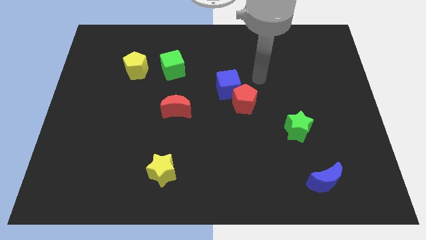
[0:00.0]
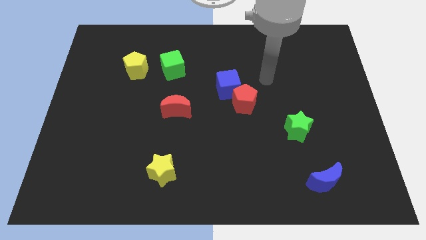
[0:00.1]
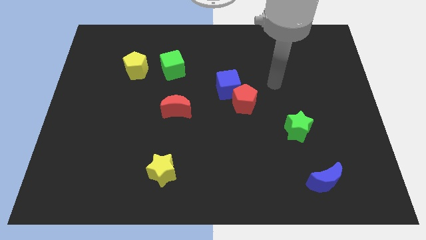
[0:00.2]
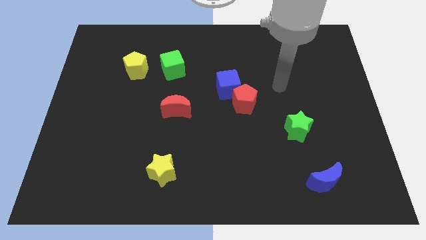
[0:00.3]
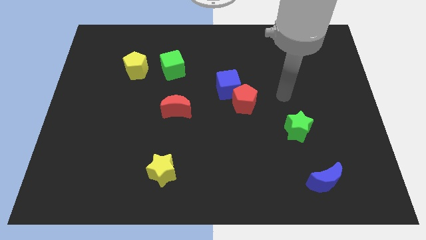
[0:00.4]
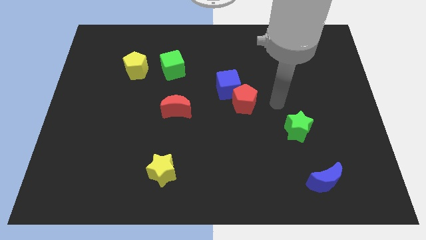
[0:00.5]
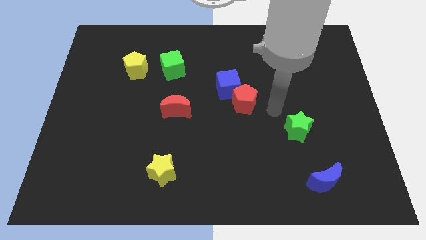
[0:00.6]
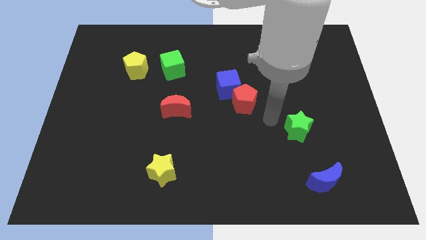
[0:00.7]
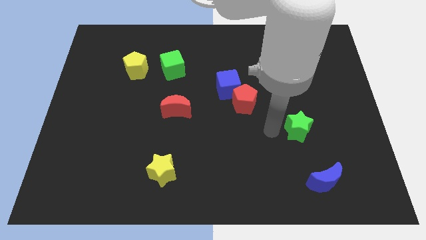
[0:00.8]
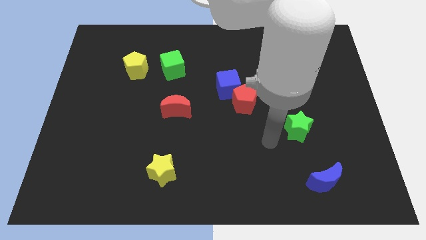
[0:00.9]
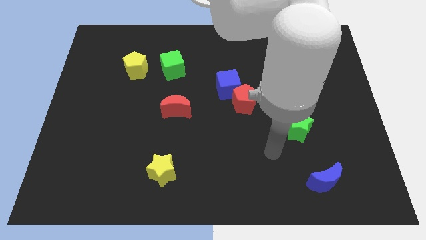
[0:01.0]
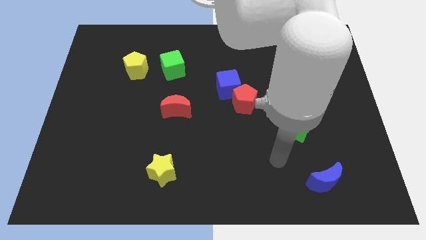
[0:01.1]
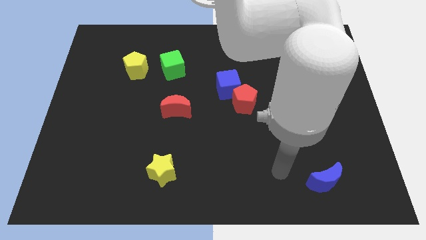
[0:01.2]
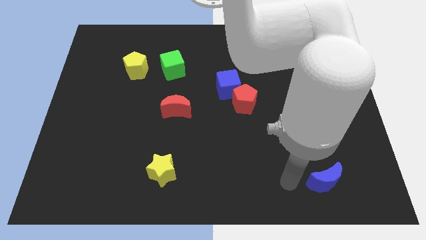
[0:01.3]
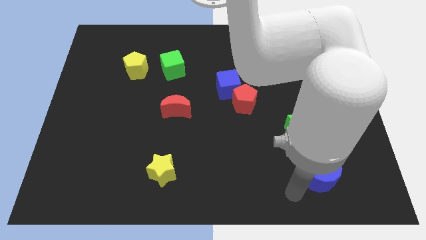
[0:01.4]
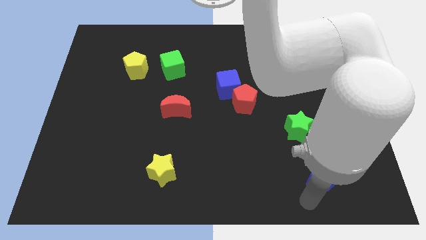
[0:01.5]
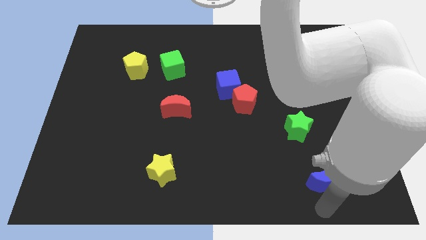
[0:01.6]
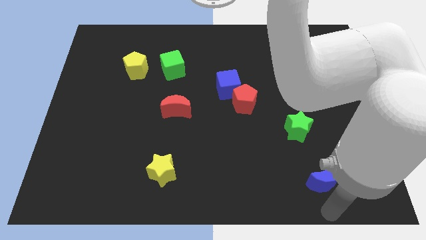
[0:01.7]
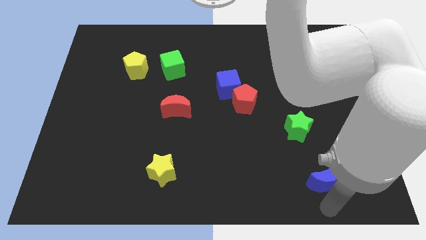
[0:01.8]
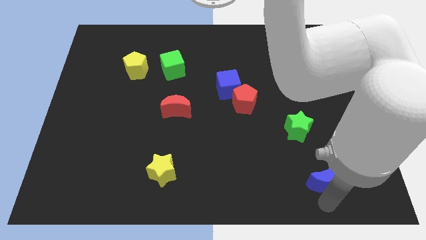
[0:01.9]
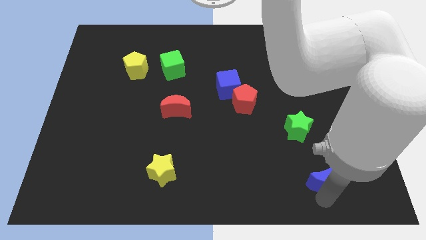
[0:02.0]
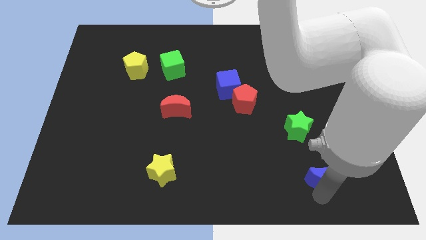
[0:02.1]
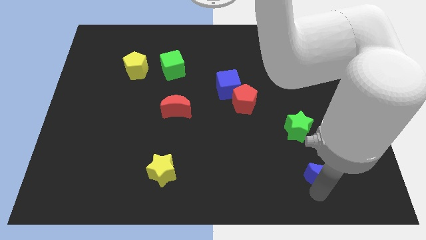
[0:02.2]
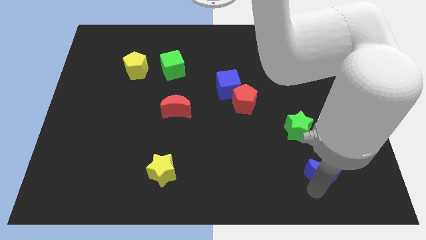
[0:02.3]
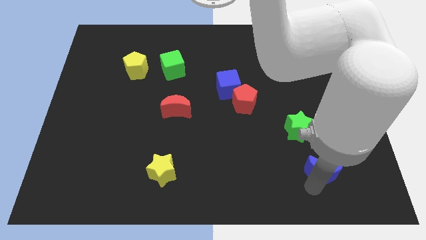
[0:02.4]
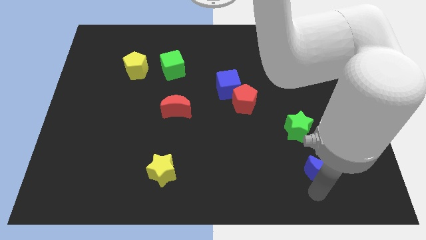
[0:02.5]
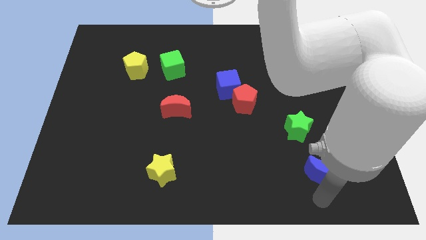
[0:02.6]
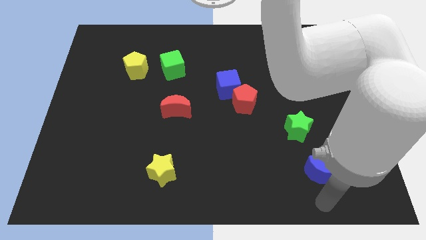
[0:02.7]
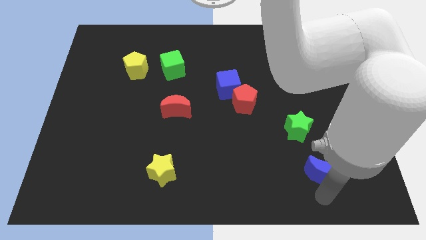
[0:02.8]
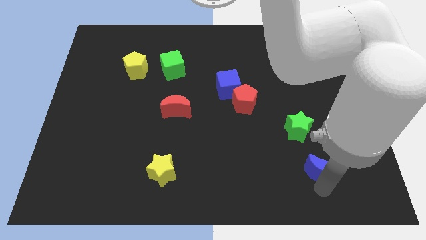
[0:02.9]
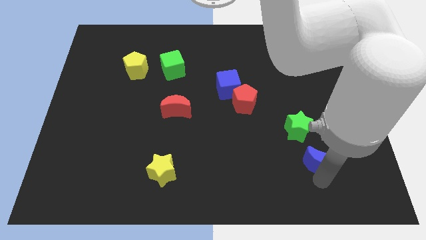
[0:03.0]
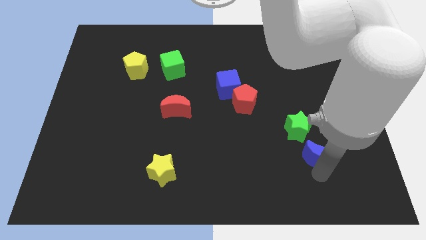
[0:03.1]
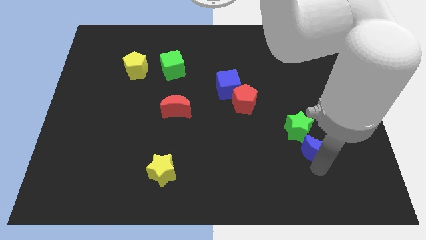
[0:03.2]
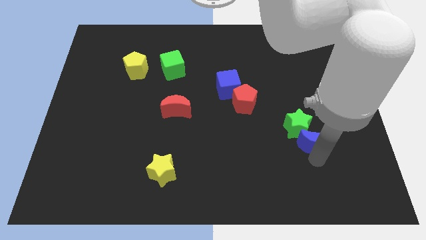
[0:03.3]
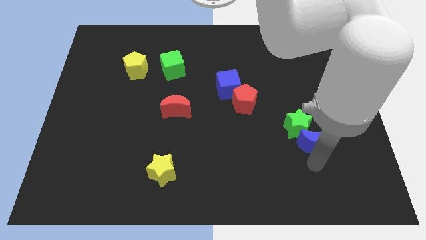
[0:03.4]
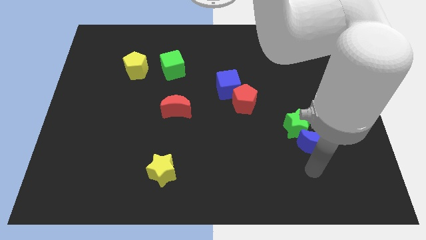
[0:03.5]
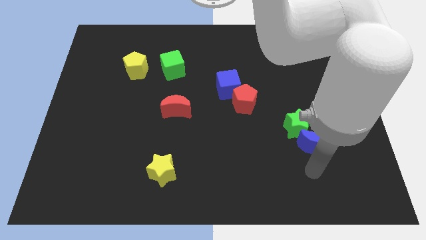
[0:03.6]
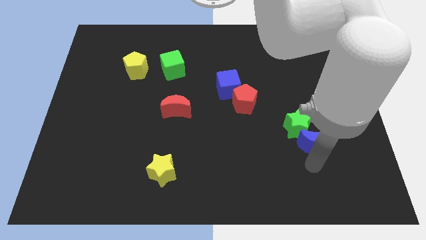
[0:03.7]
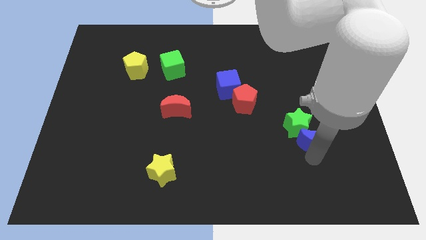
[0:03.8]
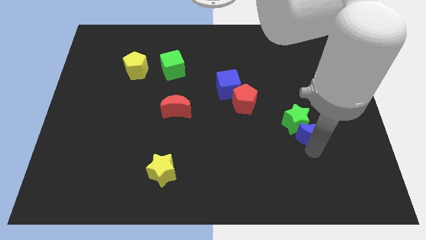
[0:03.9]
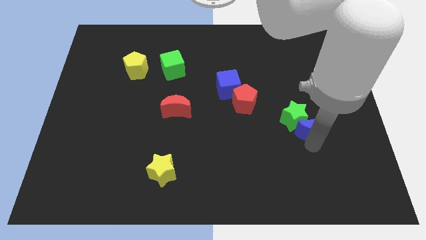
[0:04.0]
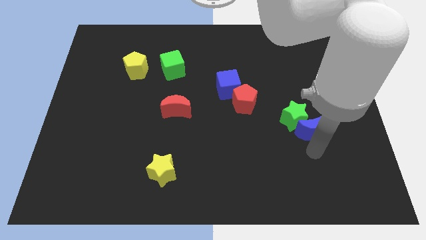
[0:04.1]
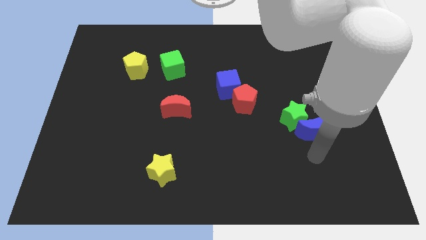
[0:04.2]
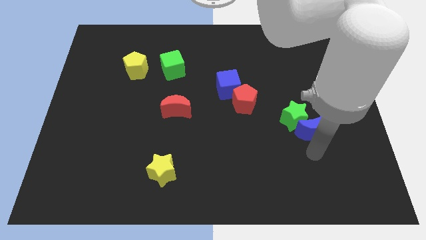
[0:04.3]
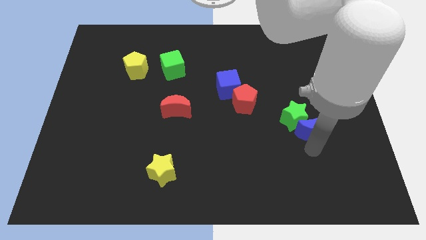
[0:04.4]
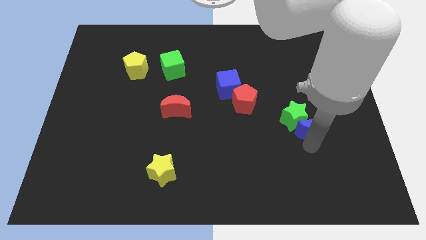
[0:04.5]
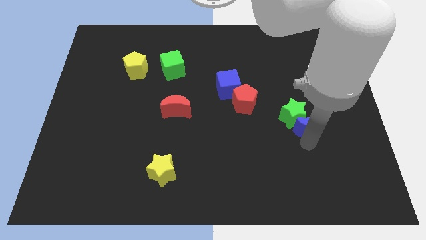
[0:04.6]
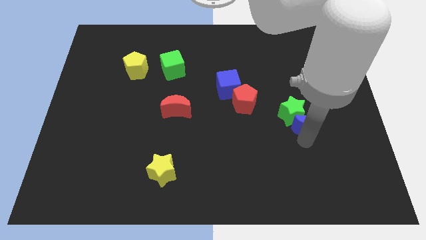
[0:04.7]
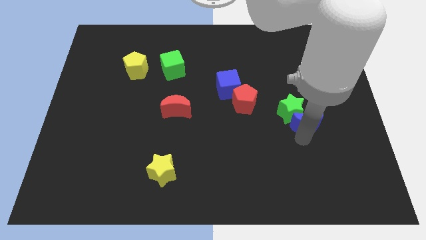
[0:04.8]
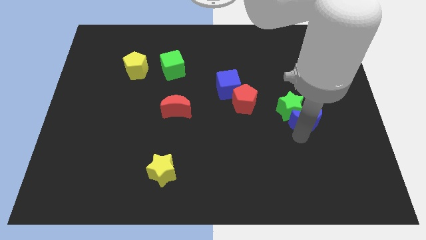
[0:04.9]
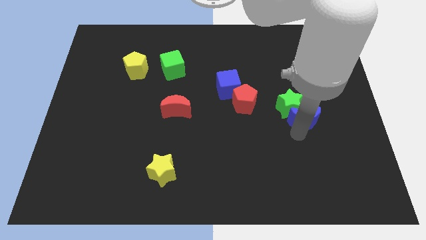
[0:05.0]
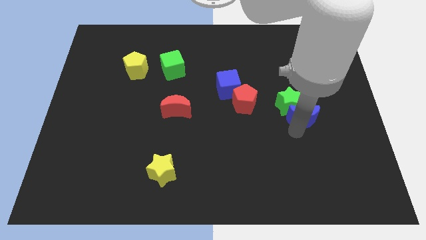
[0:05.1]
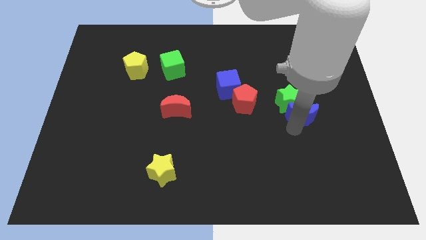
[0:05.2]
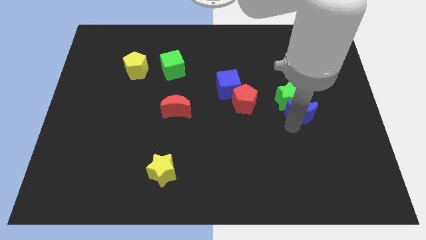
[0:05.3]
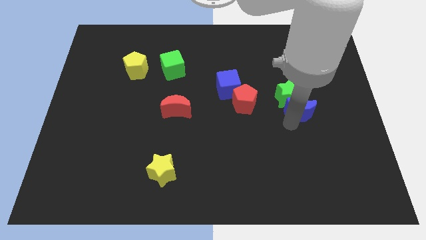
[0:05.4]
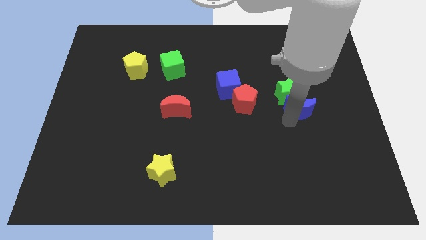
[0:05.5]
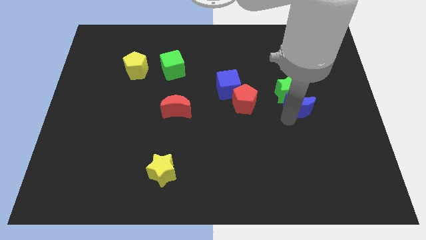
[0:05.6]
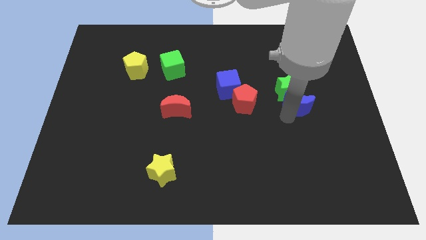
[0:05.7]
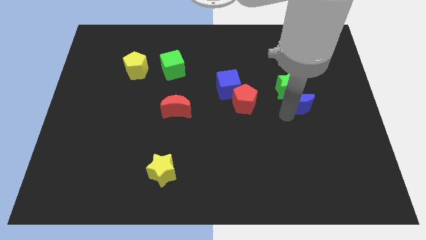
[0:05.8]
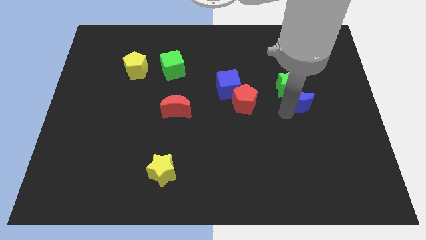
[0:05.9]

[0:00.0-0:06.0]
push the blue moon upwards

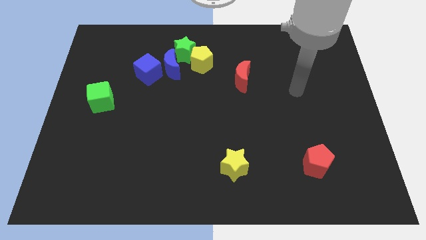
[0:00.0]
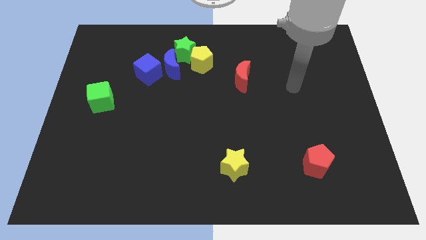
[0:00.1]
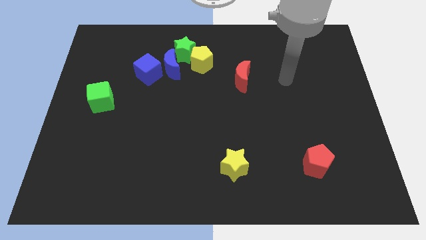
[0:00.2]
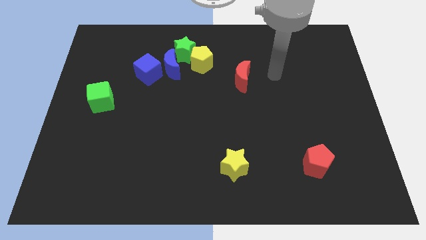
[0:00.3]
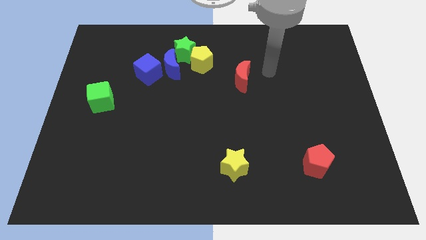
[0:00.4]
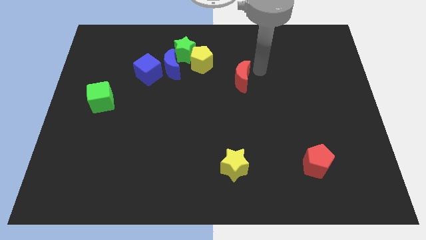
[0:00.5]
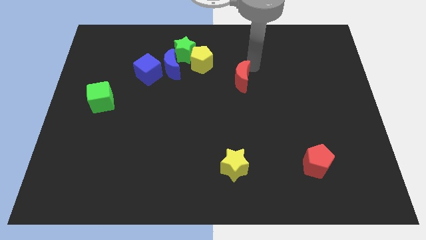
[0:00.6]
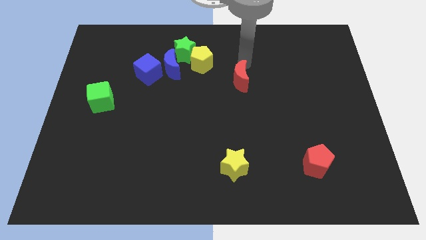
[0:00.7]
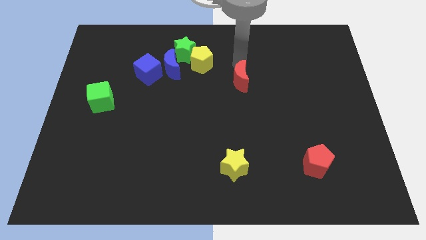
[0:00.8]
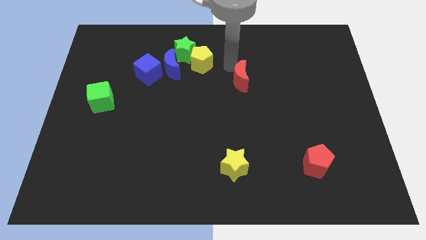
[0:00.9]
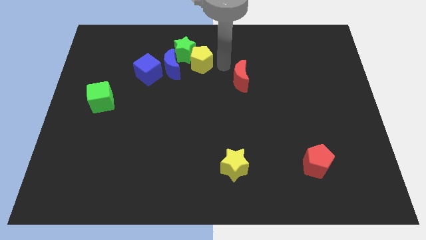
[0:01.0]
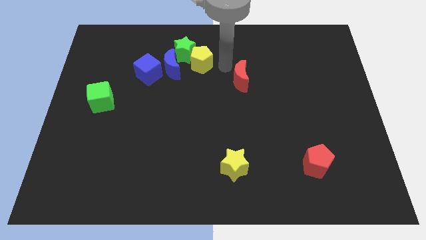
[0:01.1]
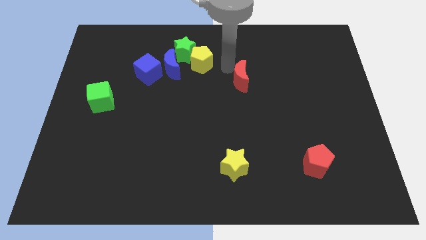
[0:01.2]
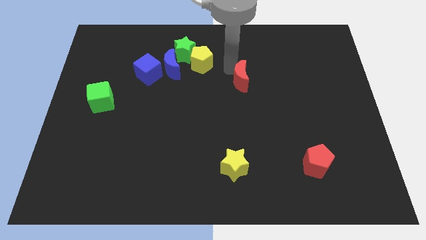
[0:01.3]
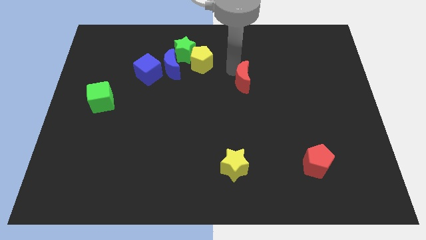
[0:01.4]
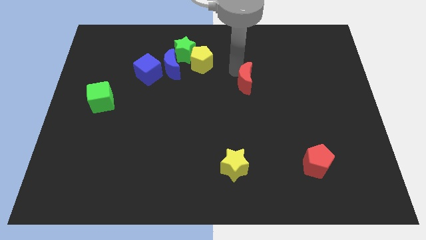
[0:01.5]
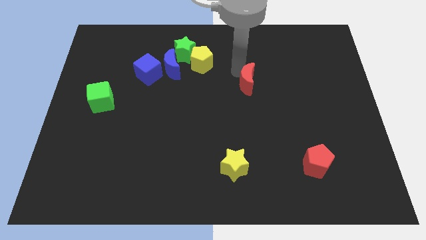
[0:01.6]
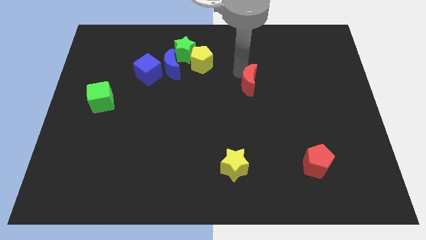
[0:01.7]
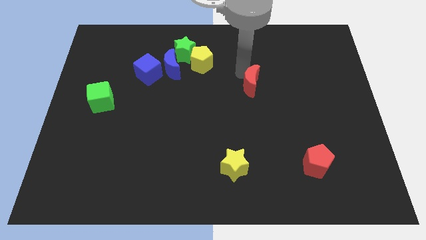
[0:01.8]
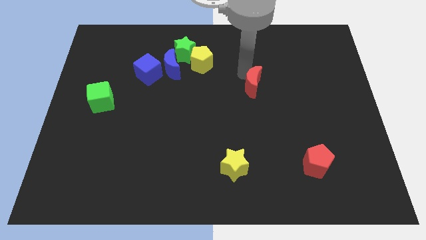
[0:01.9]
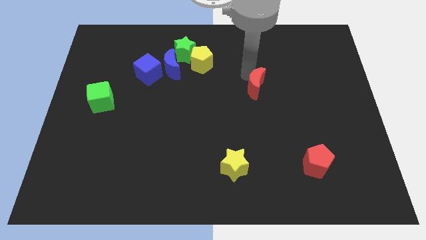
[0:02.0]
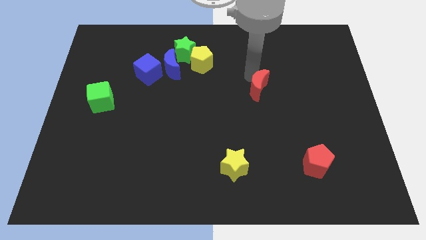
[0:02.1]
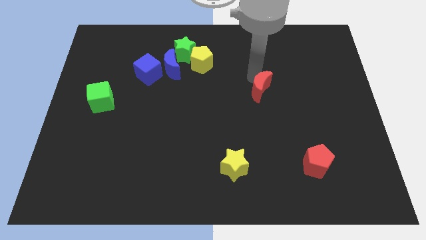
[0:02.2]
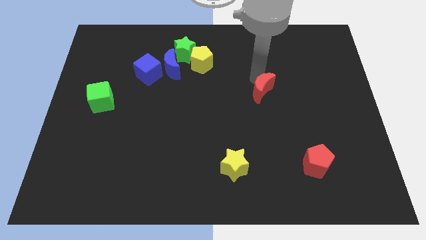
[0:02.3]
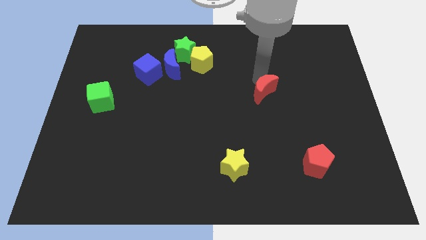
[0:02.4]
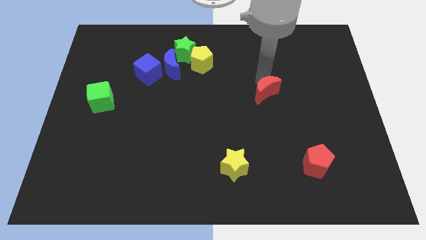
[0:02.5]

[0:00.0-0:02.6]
slide the red moon a bit down and then right
